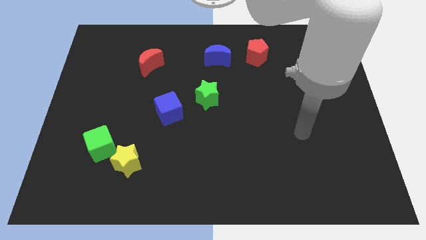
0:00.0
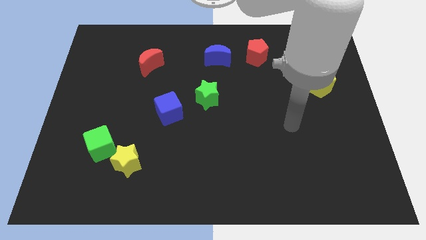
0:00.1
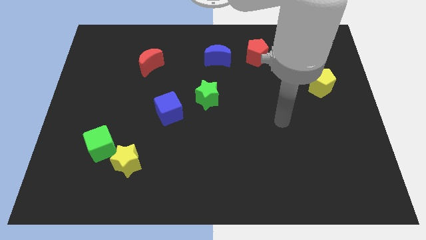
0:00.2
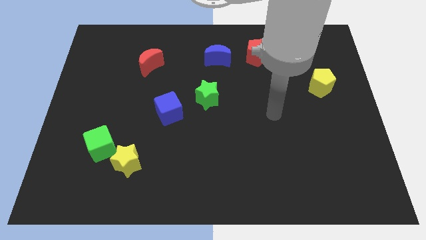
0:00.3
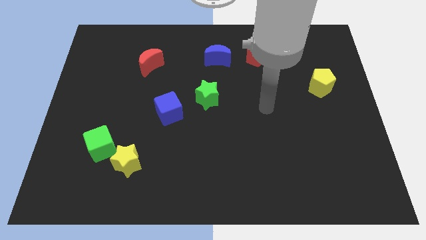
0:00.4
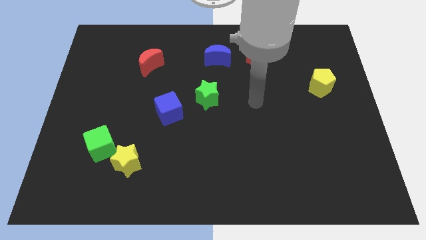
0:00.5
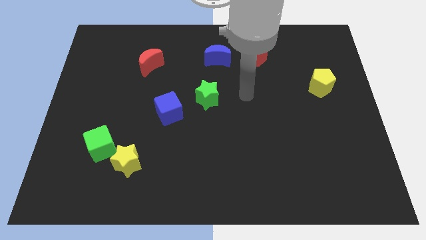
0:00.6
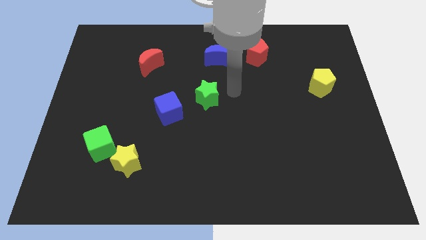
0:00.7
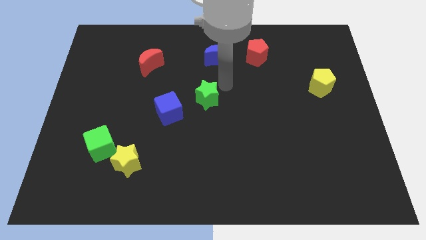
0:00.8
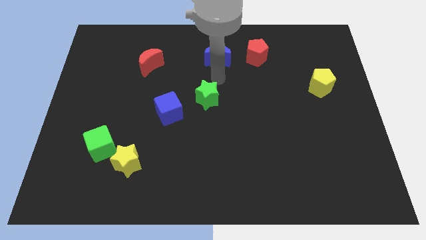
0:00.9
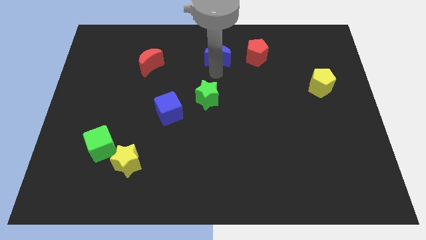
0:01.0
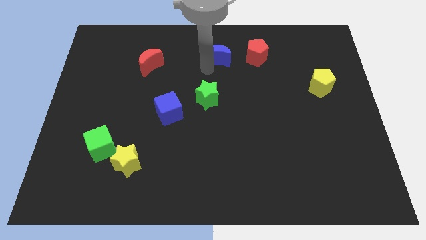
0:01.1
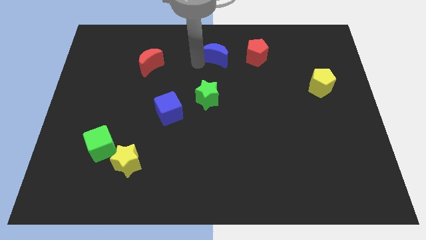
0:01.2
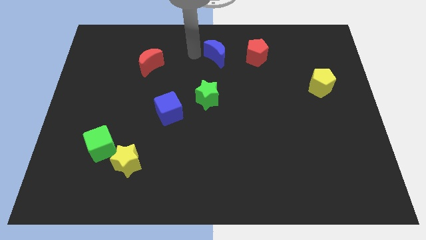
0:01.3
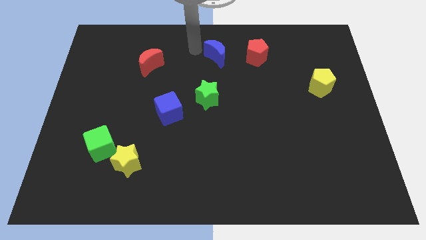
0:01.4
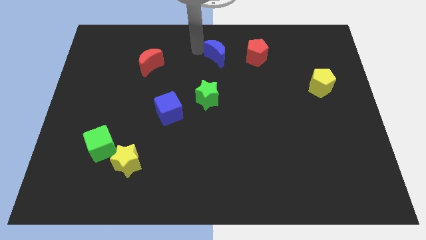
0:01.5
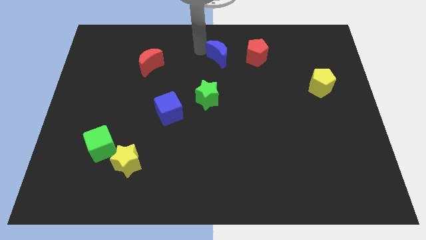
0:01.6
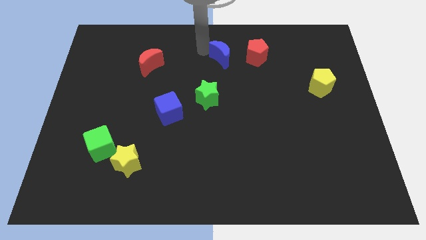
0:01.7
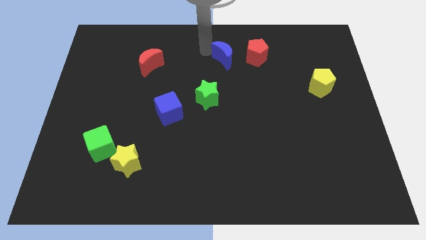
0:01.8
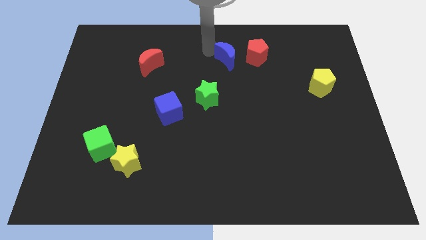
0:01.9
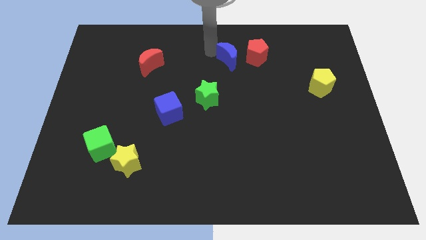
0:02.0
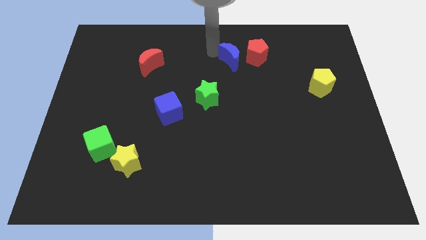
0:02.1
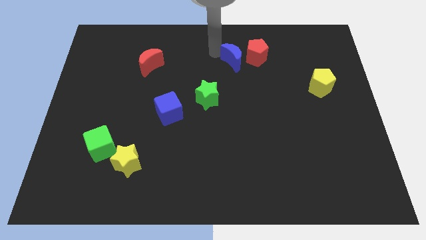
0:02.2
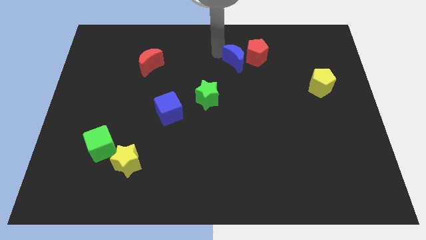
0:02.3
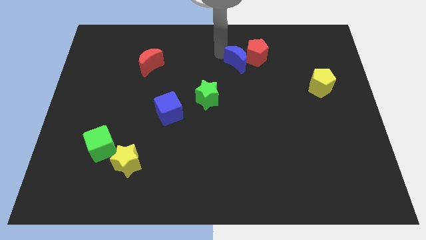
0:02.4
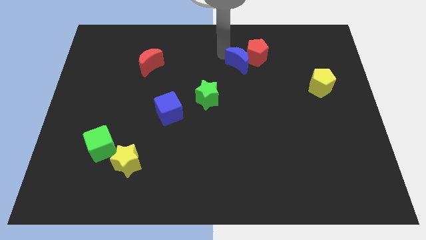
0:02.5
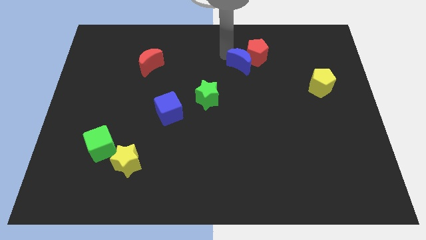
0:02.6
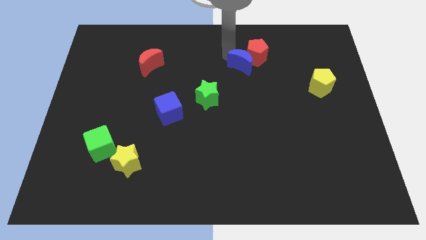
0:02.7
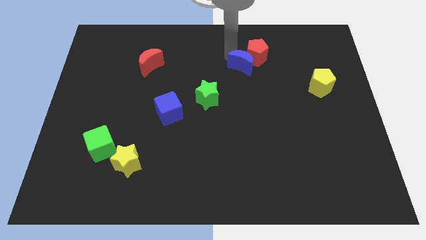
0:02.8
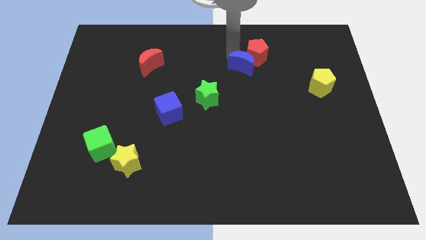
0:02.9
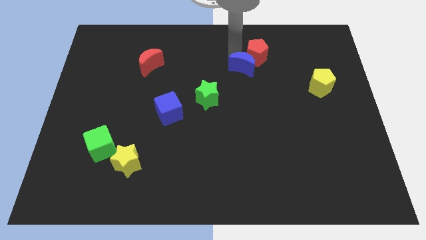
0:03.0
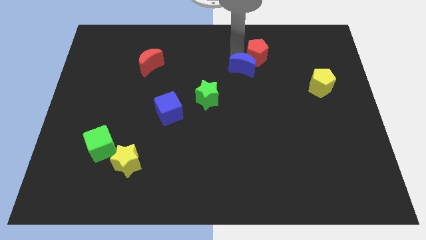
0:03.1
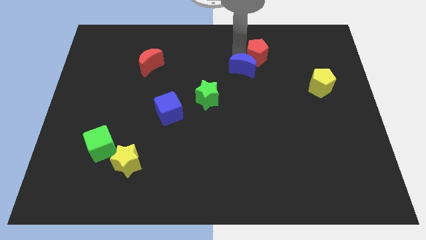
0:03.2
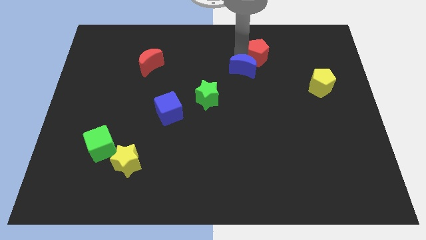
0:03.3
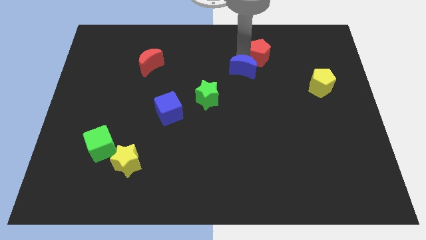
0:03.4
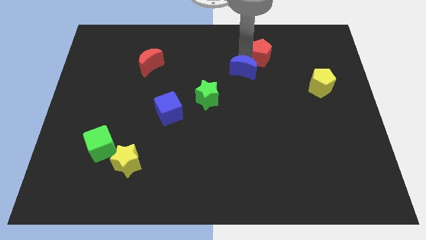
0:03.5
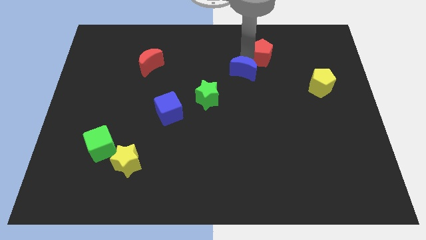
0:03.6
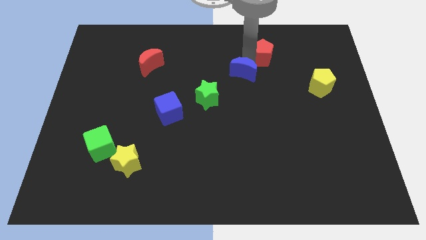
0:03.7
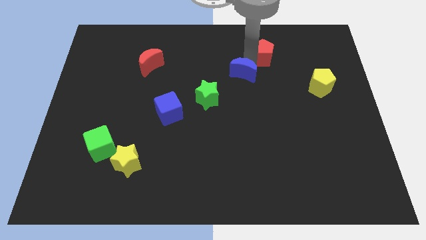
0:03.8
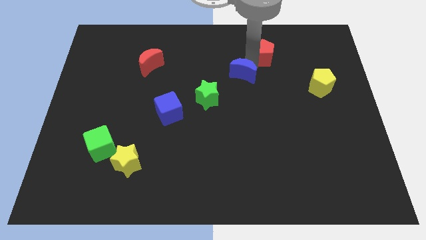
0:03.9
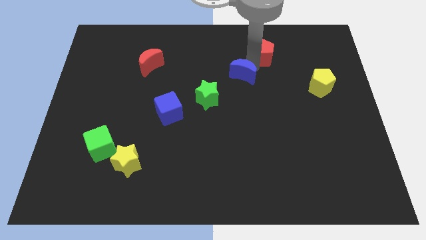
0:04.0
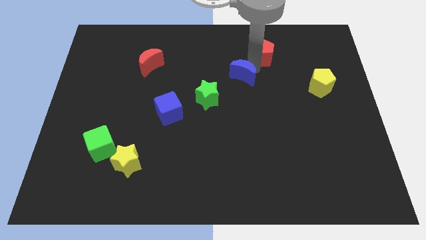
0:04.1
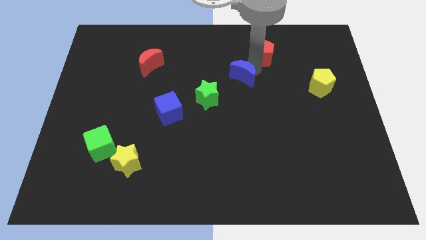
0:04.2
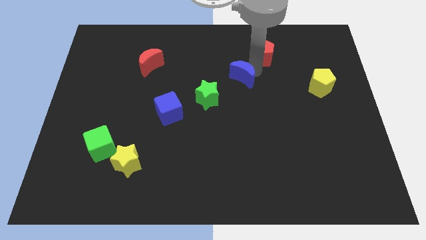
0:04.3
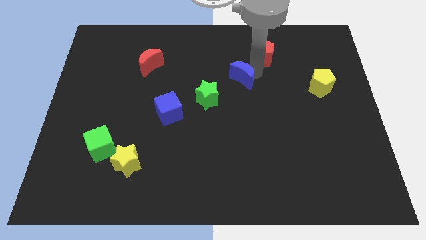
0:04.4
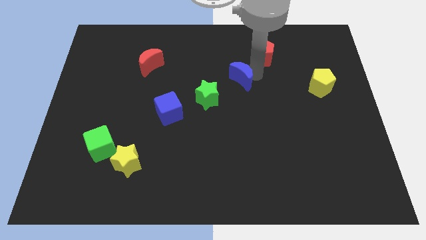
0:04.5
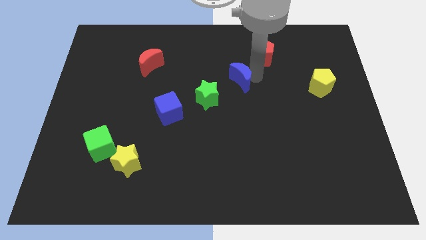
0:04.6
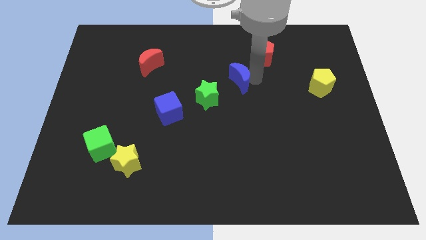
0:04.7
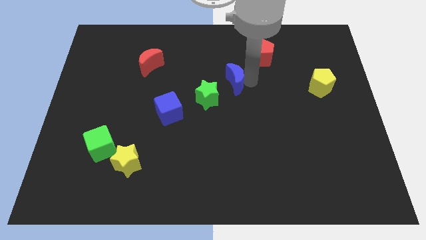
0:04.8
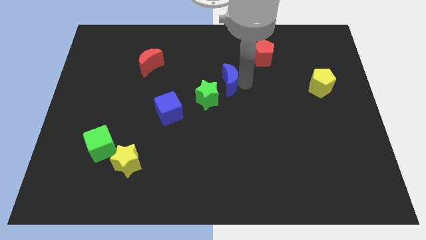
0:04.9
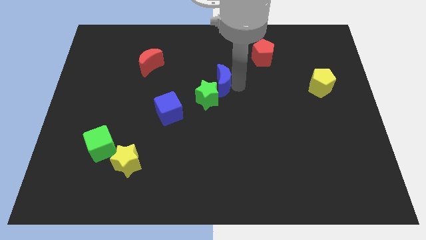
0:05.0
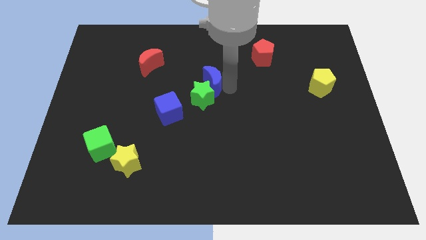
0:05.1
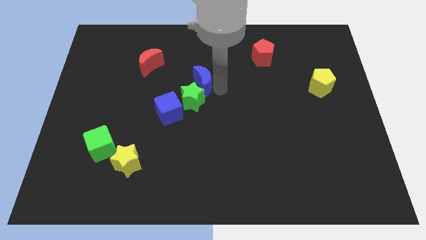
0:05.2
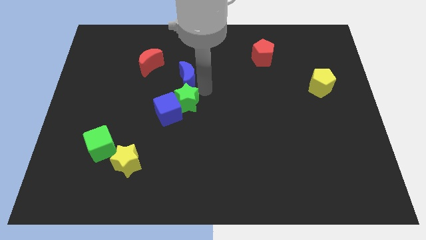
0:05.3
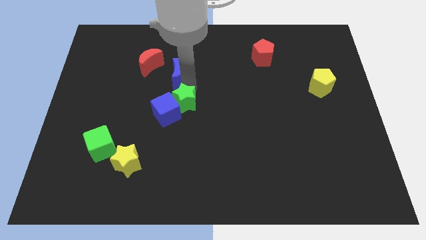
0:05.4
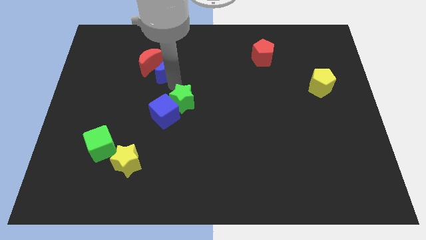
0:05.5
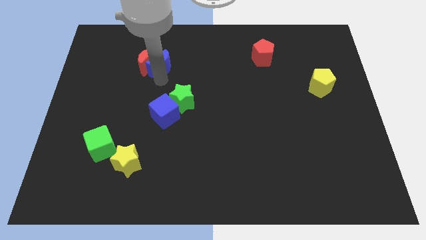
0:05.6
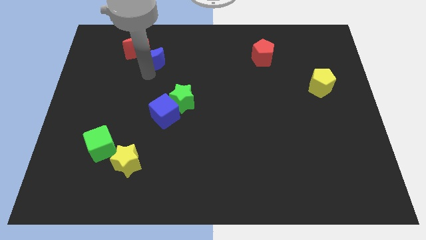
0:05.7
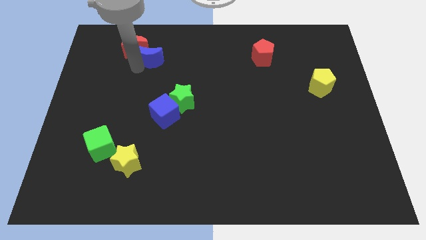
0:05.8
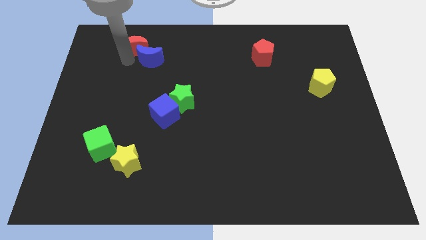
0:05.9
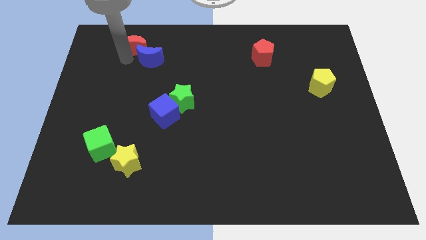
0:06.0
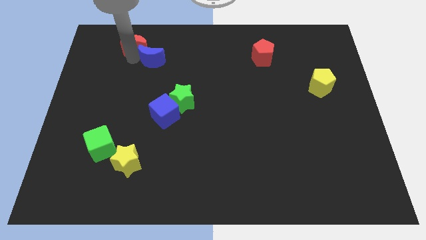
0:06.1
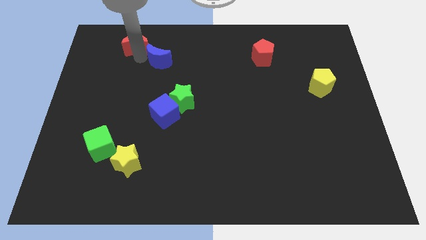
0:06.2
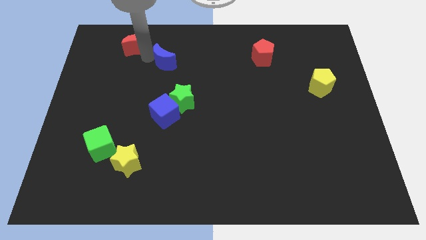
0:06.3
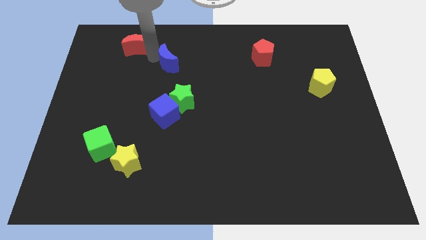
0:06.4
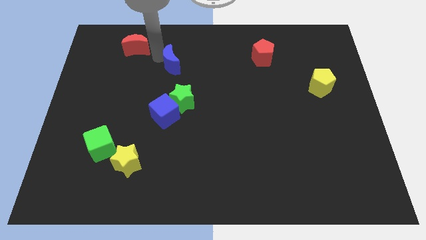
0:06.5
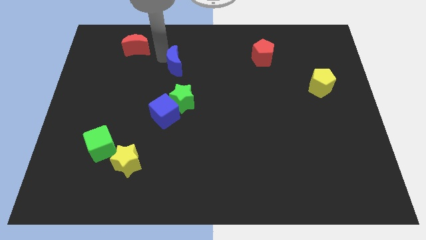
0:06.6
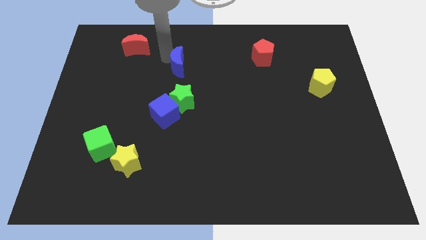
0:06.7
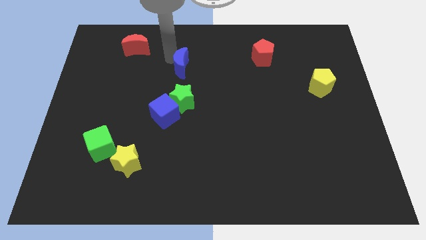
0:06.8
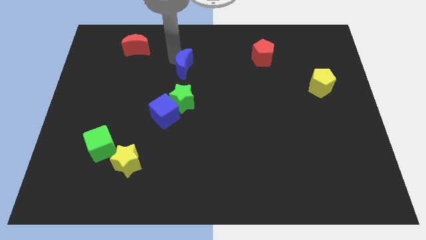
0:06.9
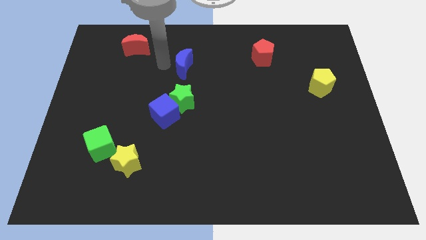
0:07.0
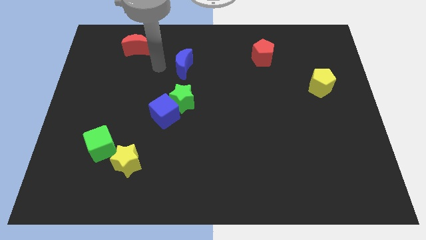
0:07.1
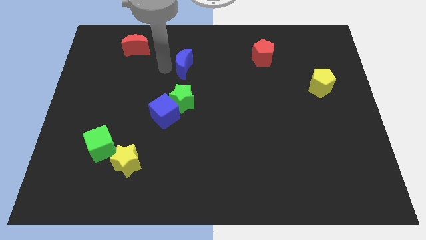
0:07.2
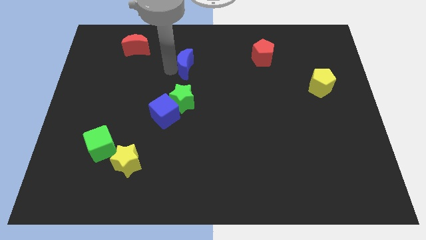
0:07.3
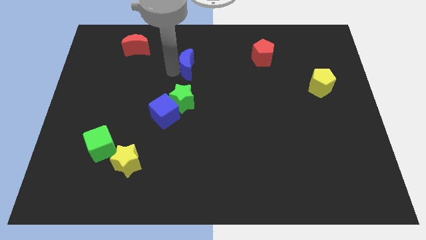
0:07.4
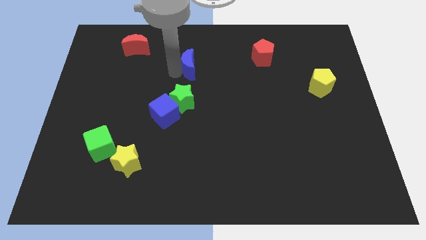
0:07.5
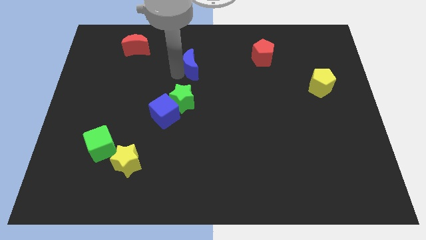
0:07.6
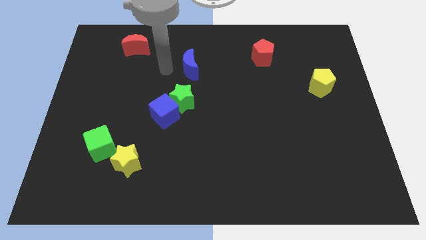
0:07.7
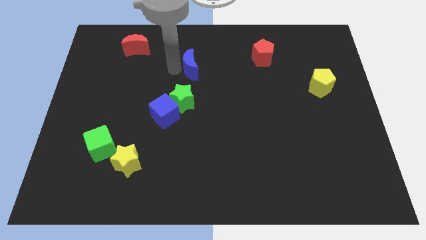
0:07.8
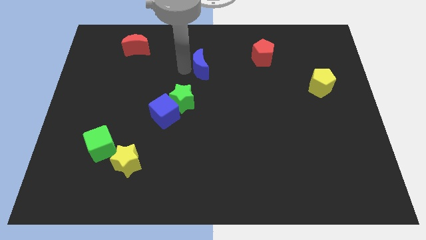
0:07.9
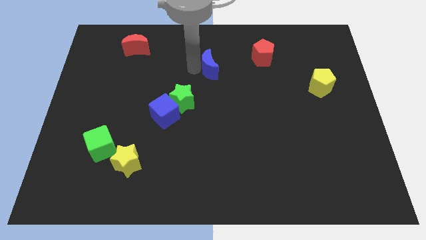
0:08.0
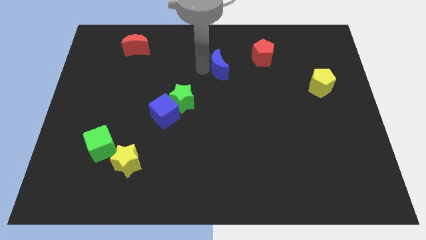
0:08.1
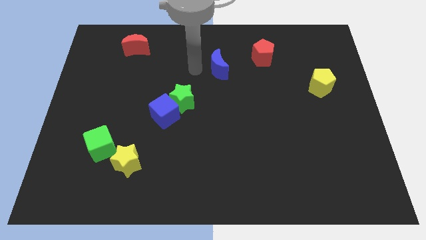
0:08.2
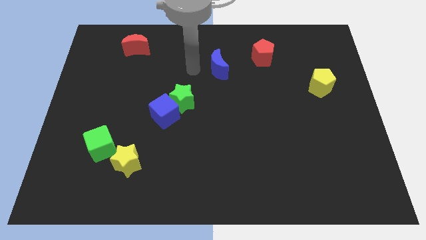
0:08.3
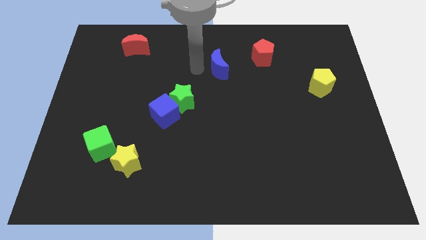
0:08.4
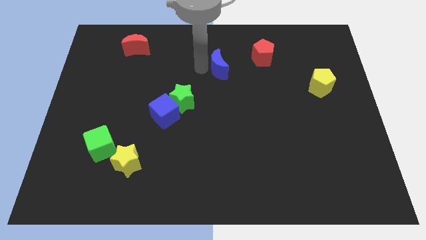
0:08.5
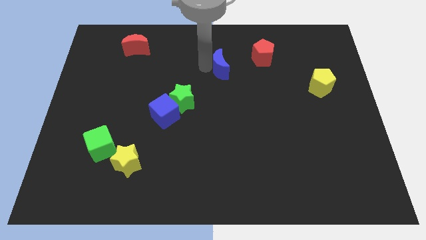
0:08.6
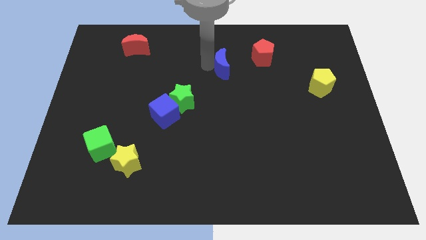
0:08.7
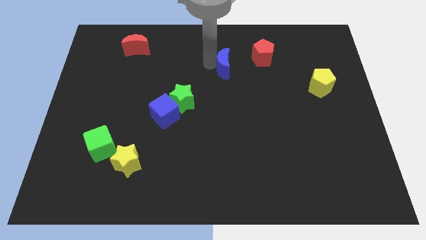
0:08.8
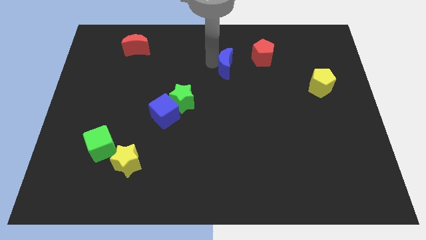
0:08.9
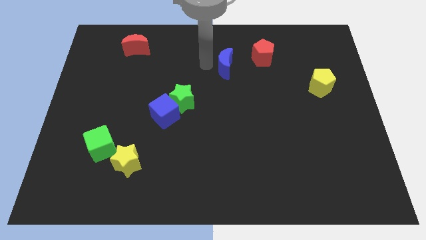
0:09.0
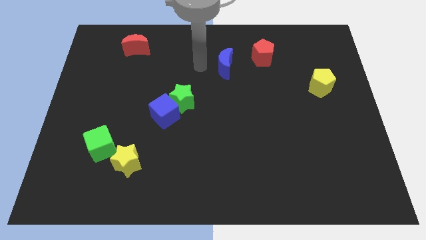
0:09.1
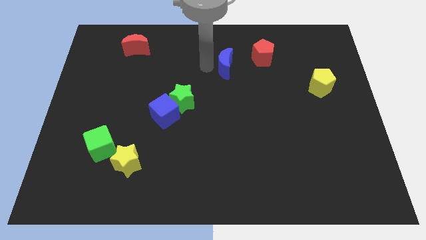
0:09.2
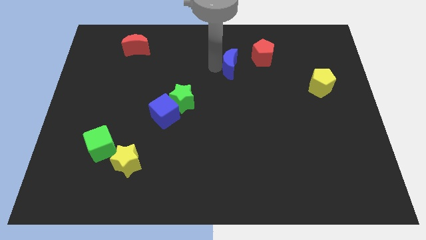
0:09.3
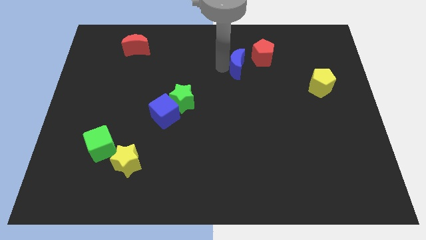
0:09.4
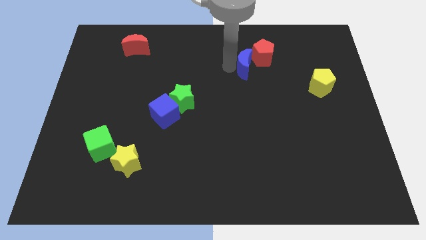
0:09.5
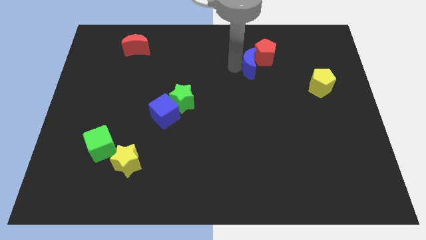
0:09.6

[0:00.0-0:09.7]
slightly move the blue moon right
